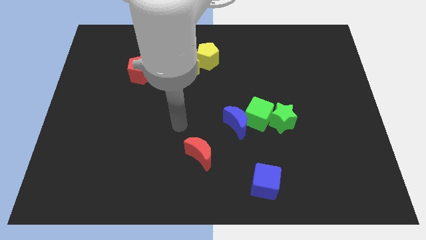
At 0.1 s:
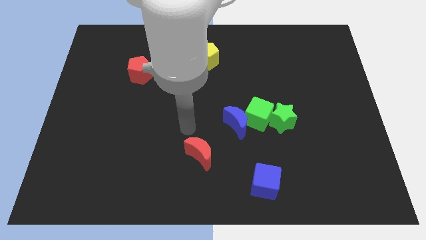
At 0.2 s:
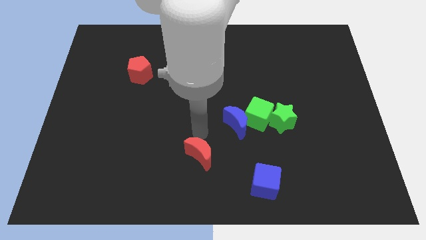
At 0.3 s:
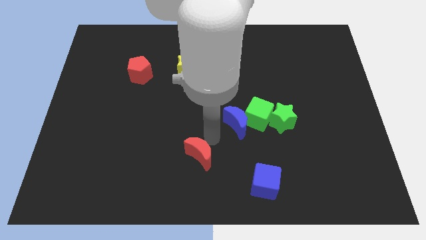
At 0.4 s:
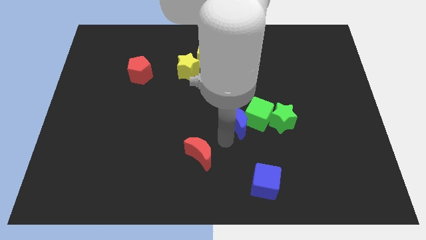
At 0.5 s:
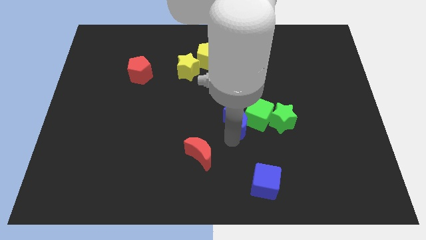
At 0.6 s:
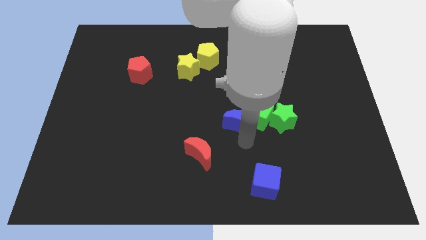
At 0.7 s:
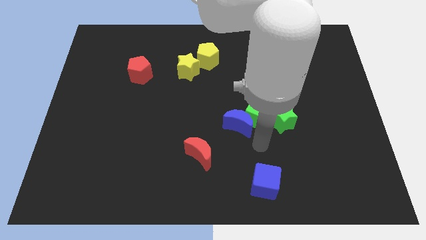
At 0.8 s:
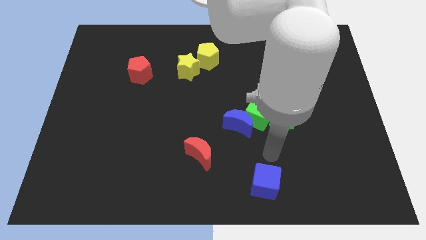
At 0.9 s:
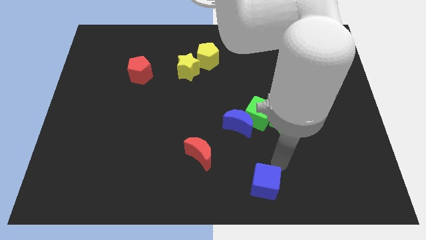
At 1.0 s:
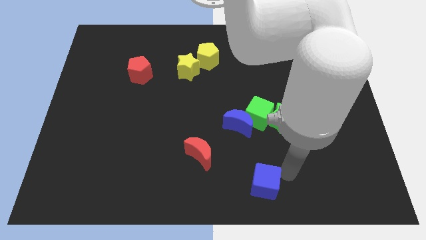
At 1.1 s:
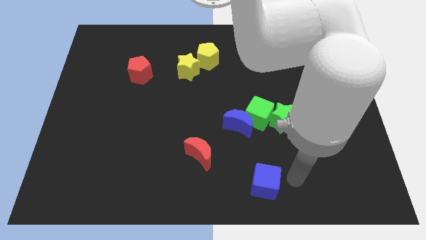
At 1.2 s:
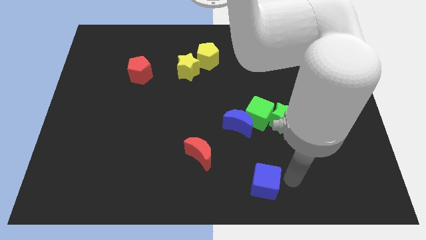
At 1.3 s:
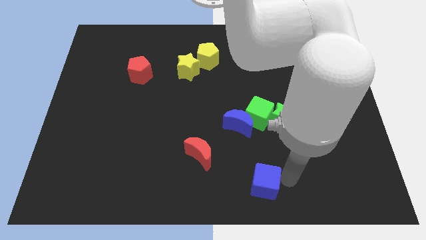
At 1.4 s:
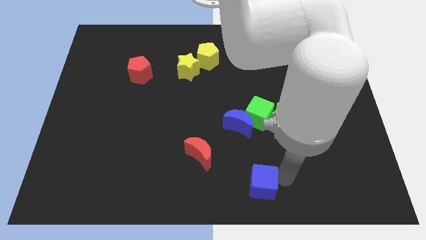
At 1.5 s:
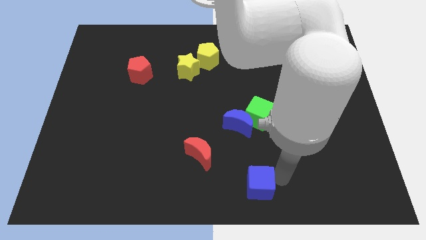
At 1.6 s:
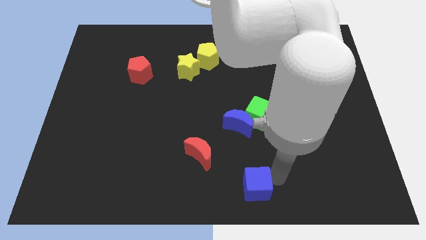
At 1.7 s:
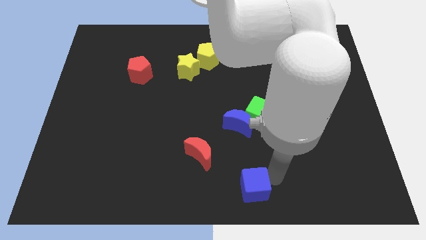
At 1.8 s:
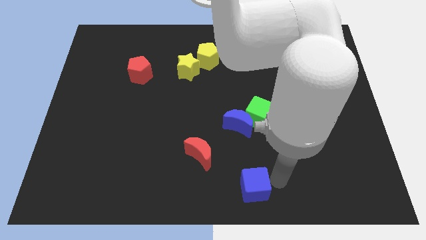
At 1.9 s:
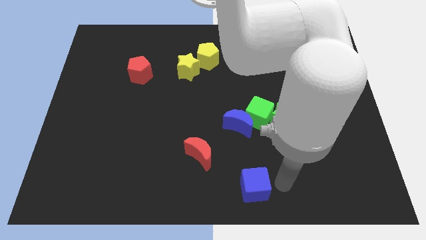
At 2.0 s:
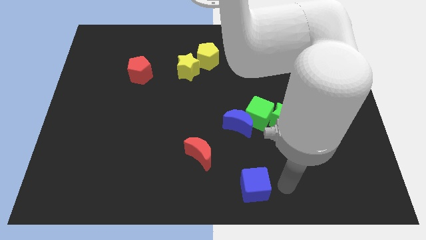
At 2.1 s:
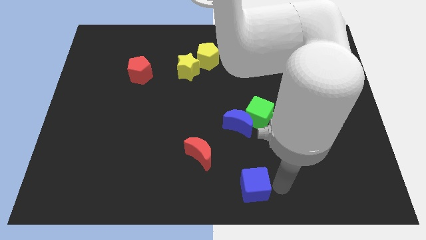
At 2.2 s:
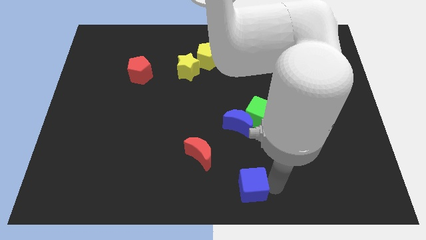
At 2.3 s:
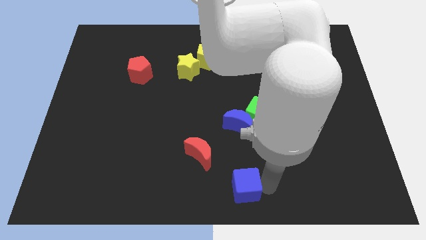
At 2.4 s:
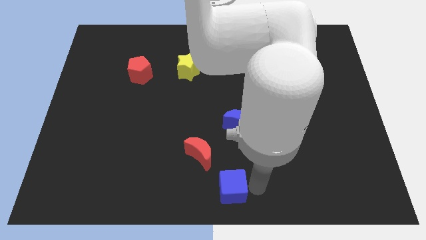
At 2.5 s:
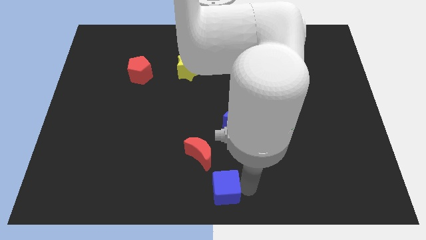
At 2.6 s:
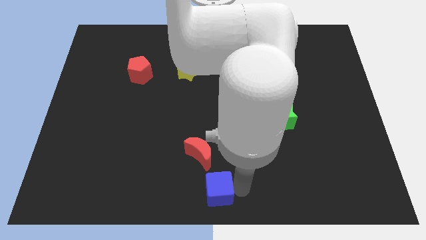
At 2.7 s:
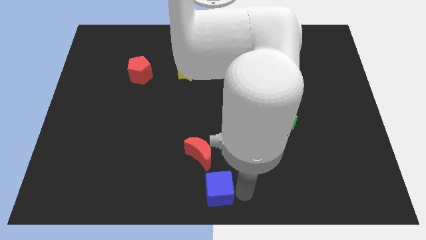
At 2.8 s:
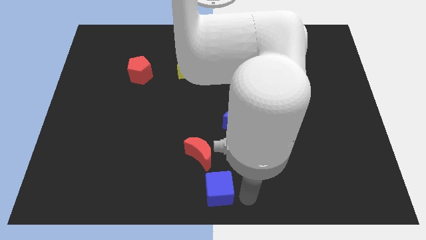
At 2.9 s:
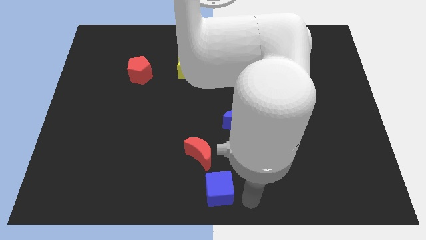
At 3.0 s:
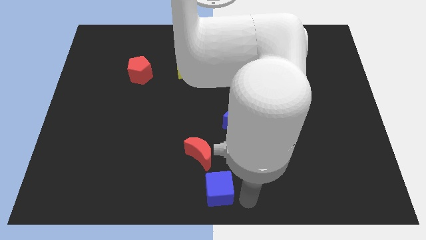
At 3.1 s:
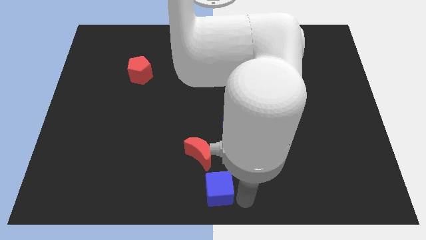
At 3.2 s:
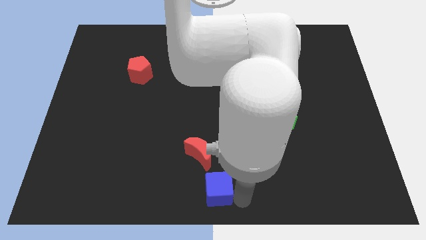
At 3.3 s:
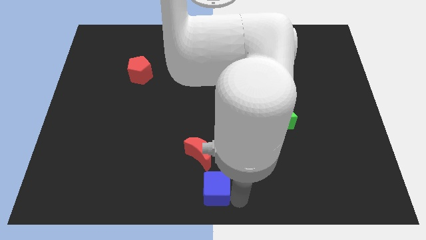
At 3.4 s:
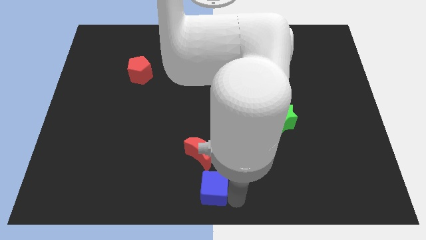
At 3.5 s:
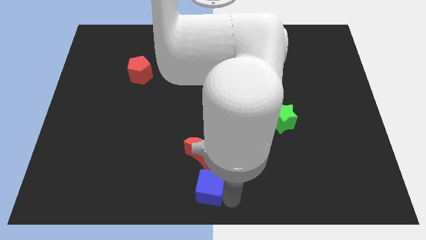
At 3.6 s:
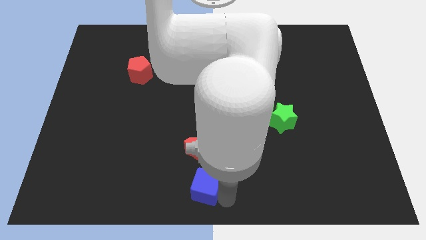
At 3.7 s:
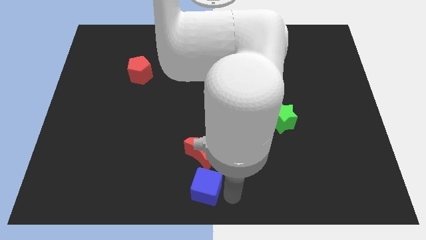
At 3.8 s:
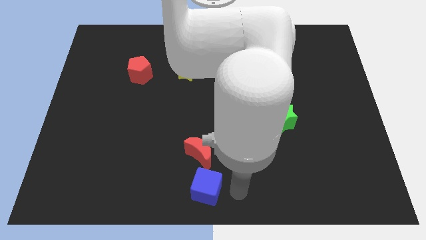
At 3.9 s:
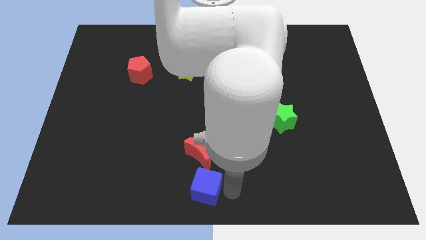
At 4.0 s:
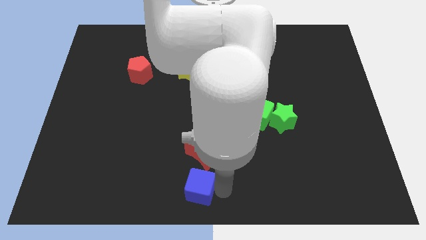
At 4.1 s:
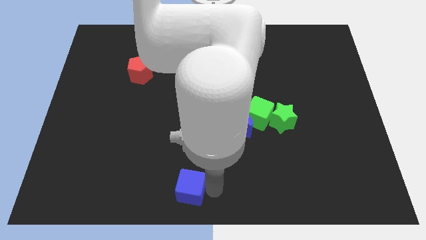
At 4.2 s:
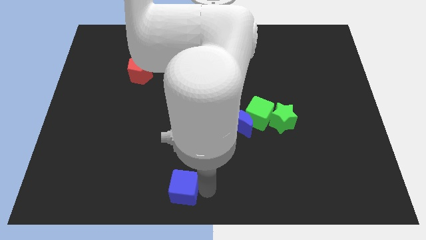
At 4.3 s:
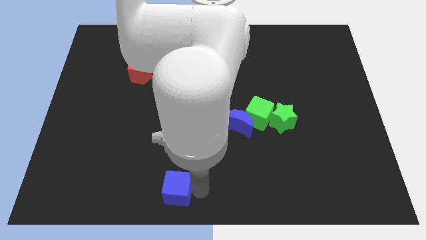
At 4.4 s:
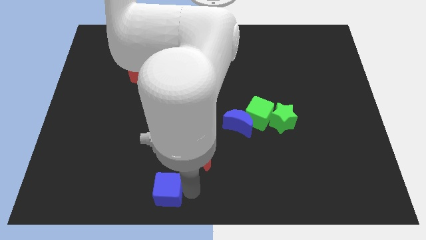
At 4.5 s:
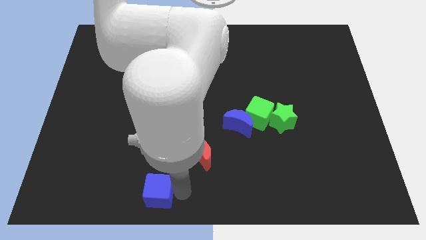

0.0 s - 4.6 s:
slide the blue cube left

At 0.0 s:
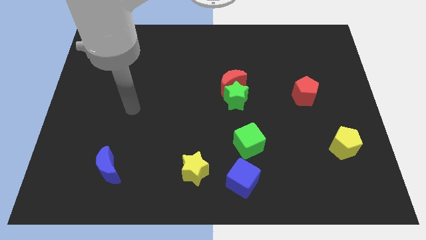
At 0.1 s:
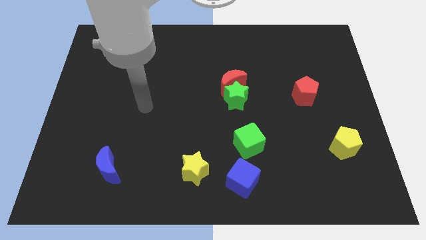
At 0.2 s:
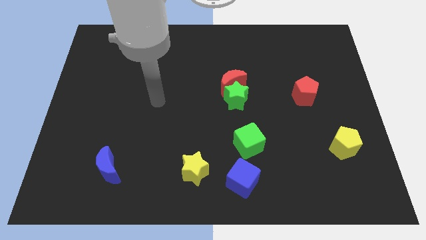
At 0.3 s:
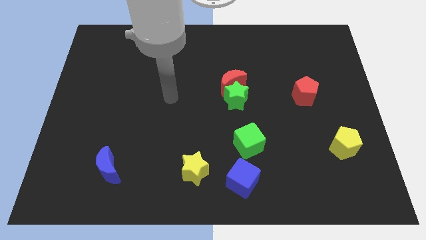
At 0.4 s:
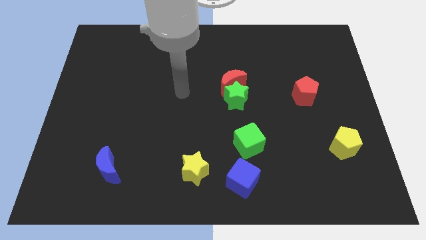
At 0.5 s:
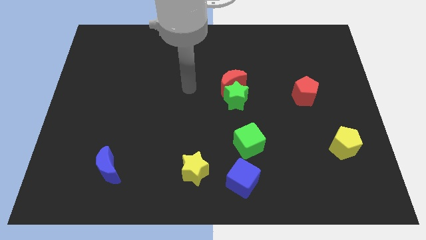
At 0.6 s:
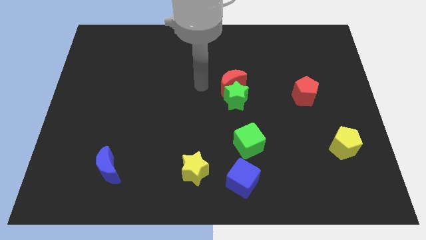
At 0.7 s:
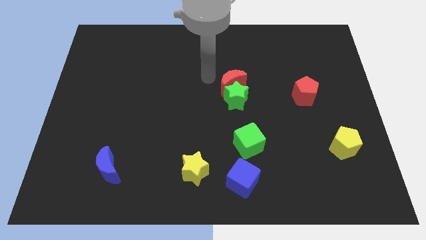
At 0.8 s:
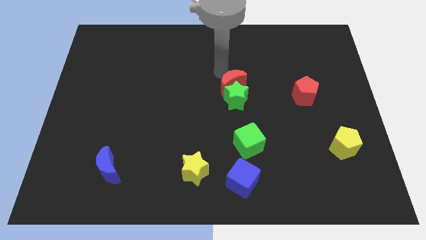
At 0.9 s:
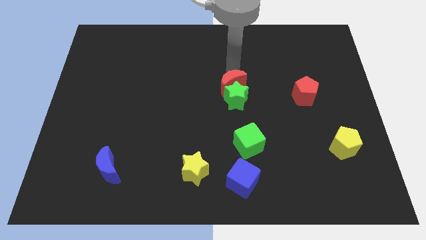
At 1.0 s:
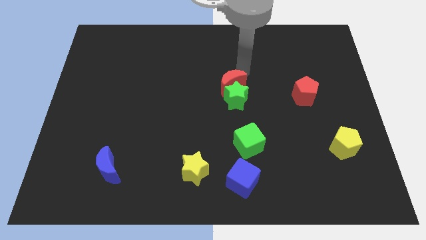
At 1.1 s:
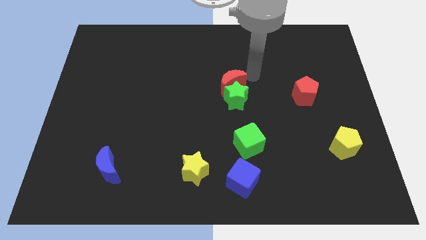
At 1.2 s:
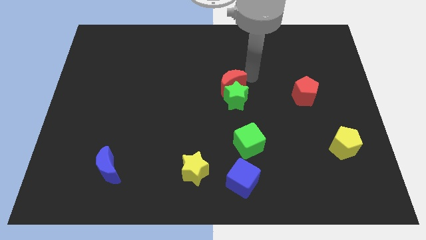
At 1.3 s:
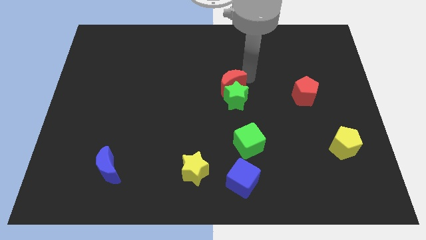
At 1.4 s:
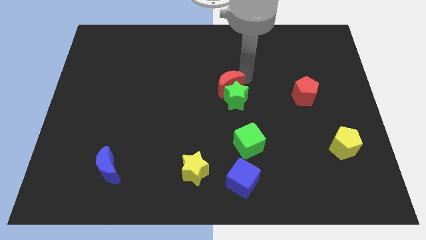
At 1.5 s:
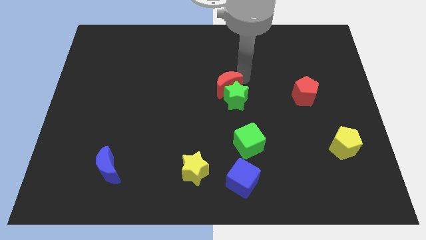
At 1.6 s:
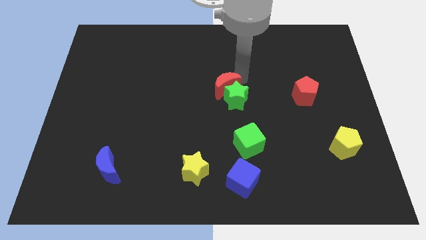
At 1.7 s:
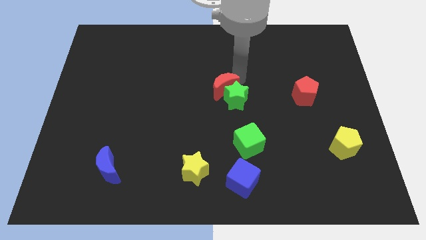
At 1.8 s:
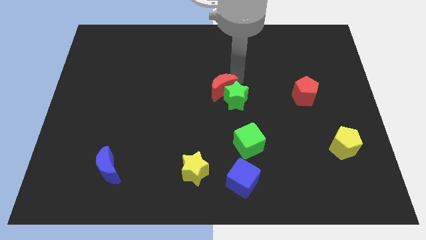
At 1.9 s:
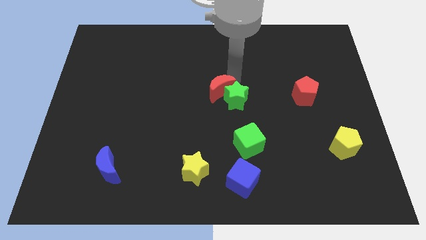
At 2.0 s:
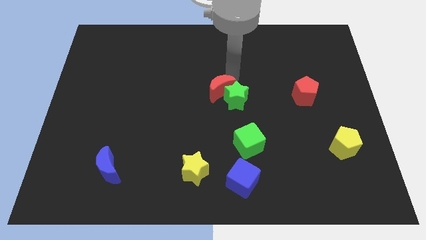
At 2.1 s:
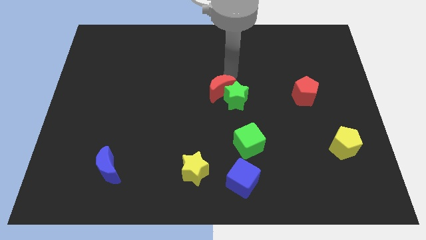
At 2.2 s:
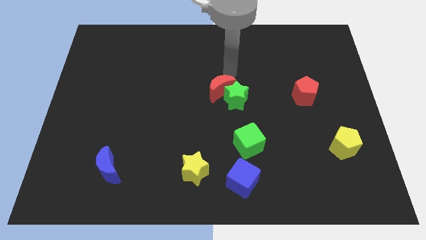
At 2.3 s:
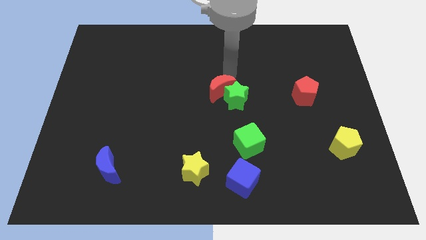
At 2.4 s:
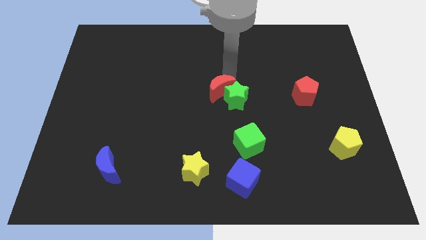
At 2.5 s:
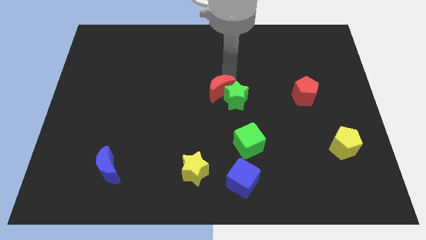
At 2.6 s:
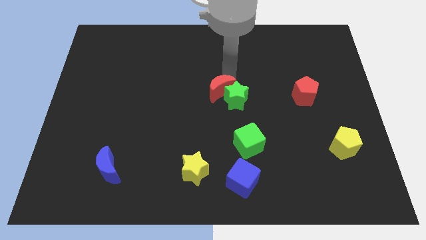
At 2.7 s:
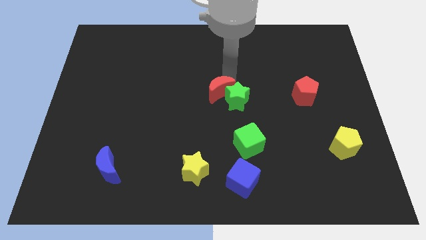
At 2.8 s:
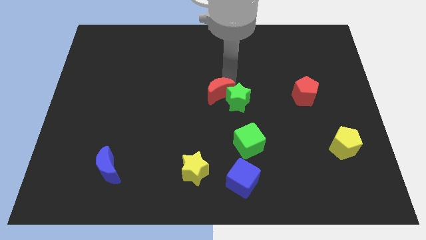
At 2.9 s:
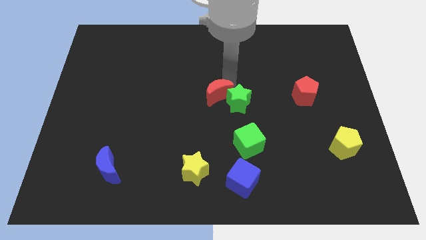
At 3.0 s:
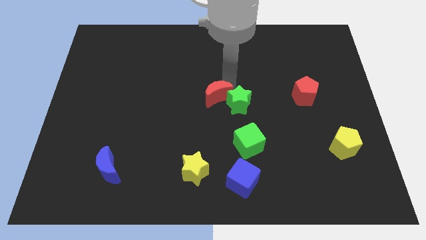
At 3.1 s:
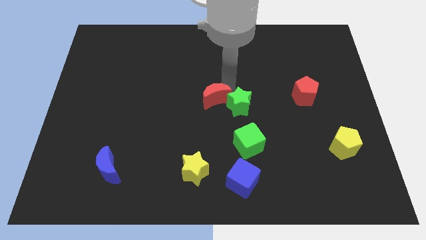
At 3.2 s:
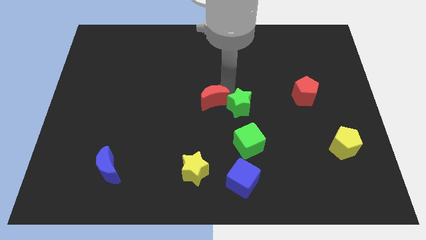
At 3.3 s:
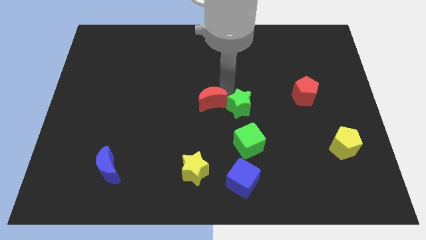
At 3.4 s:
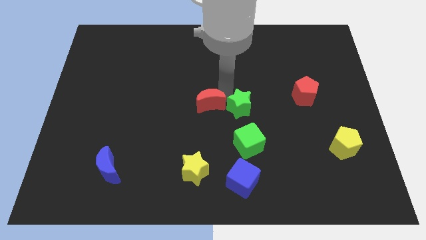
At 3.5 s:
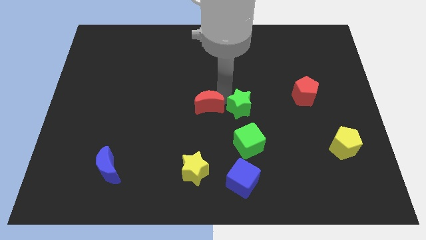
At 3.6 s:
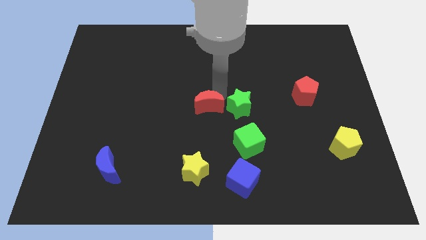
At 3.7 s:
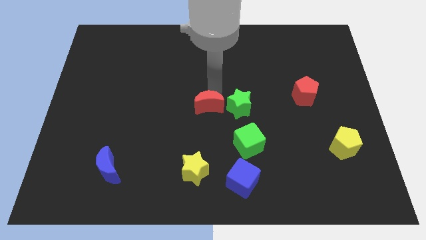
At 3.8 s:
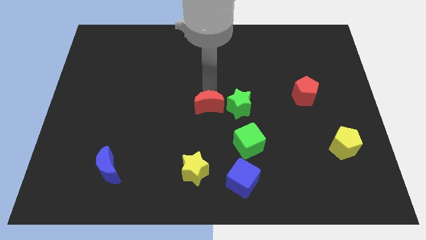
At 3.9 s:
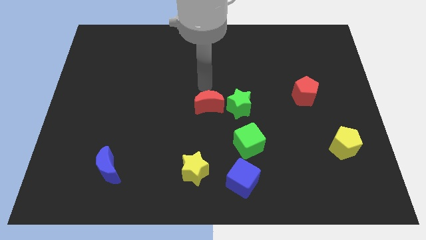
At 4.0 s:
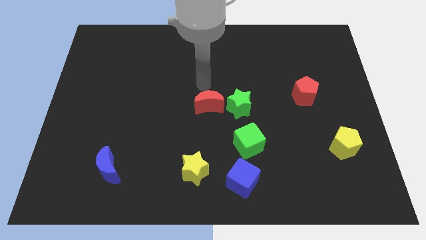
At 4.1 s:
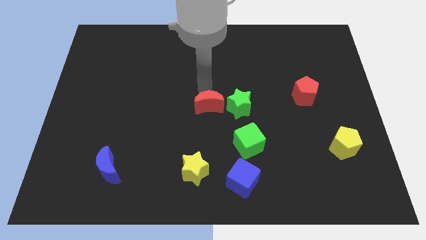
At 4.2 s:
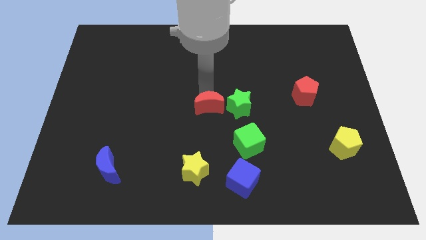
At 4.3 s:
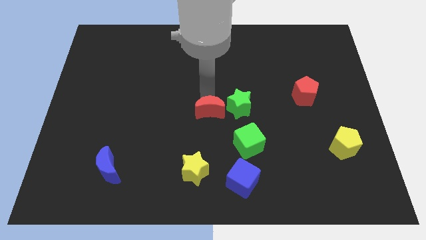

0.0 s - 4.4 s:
slide the red moon downwards a little bit
